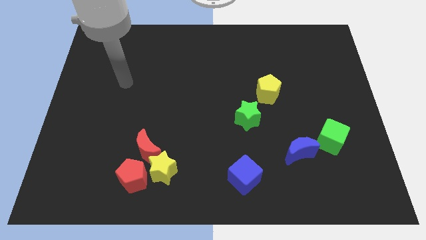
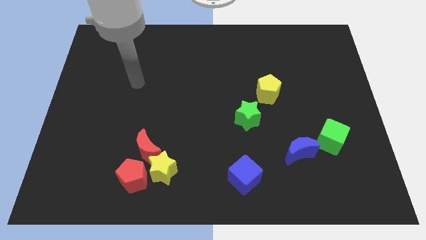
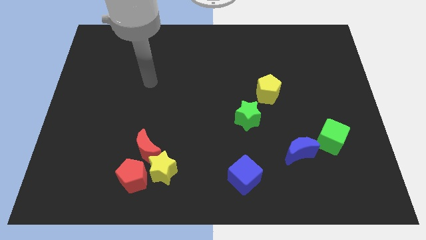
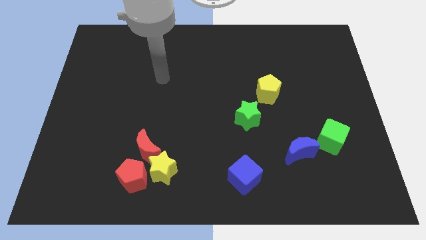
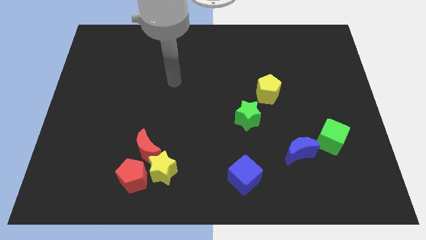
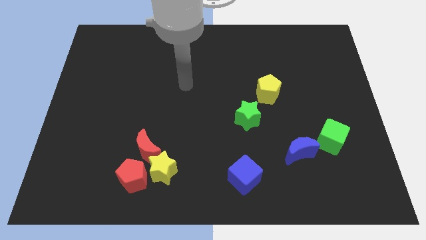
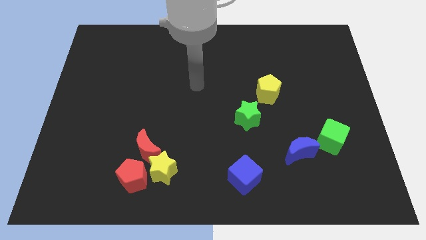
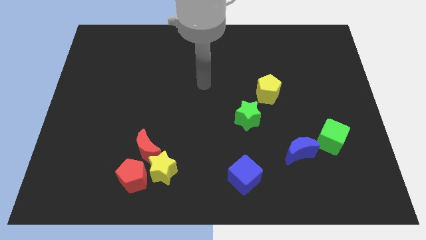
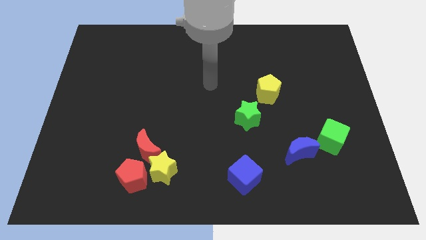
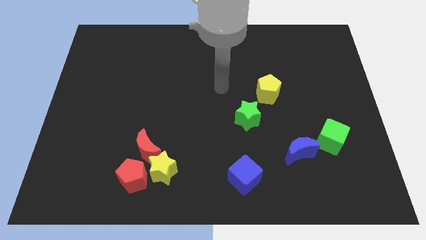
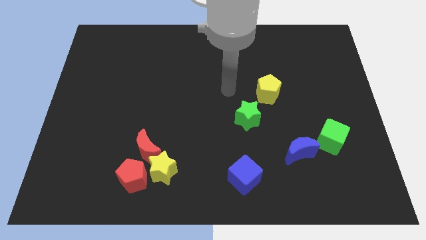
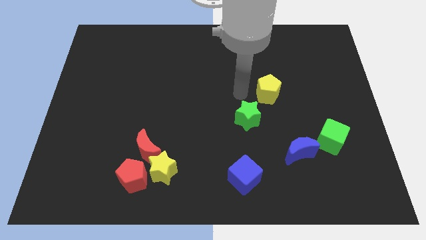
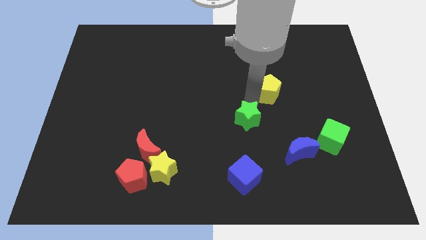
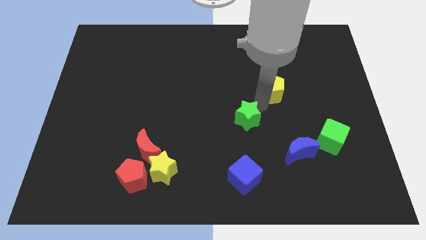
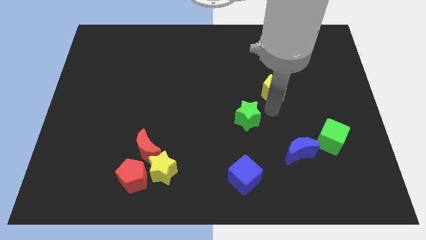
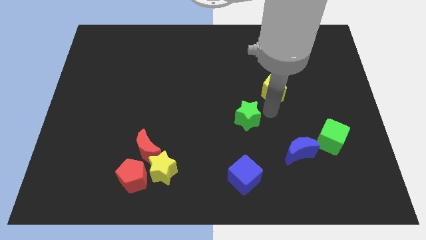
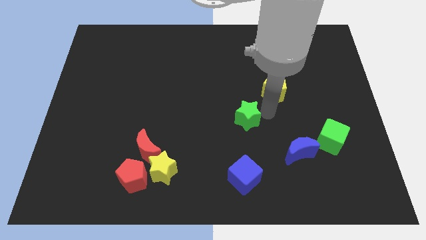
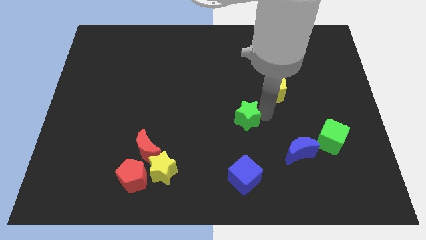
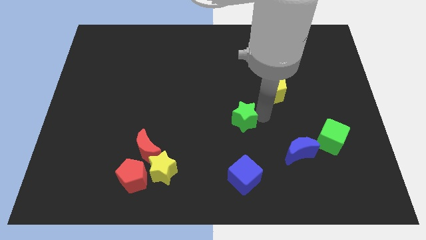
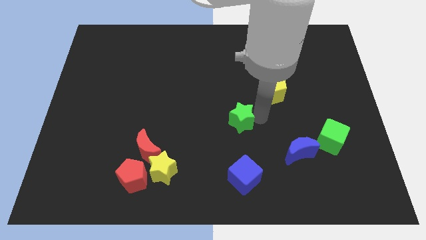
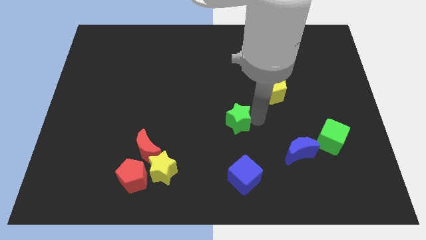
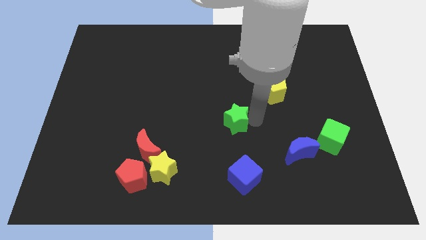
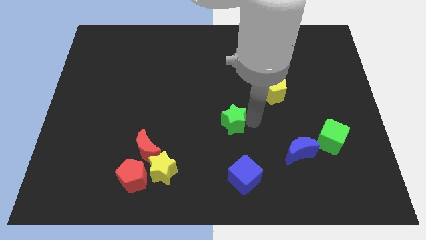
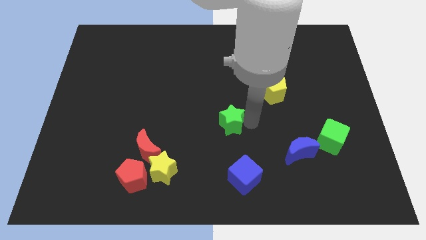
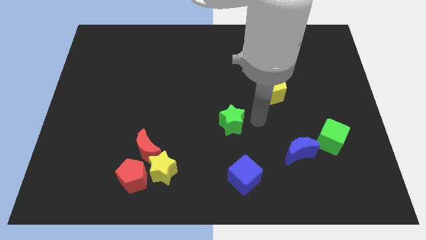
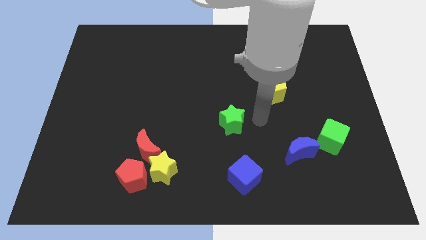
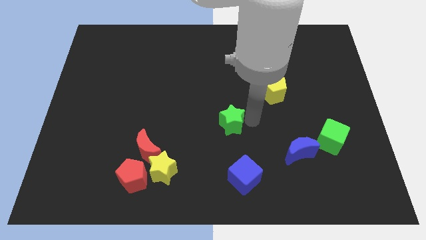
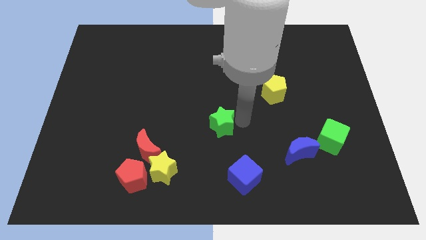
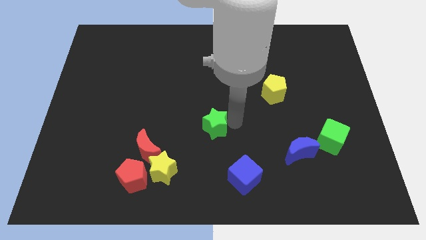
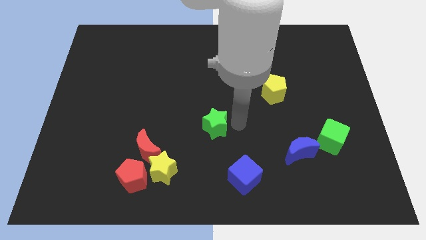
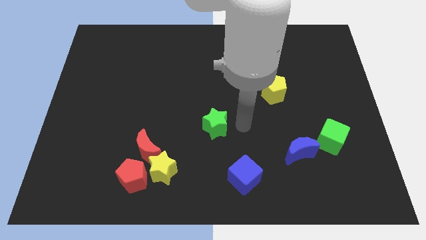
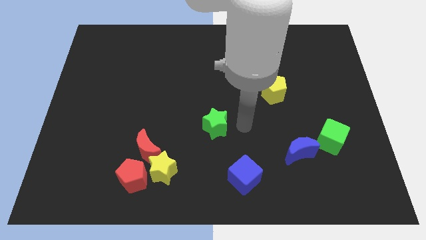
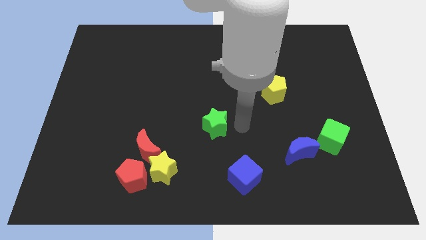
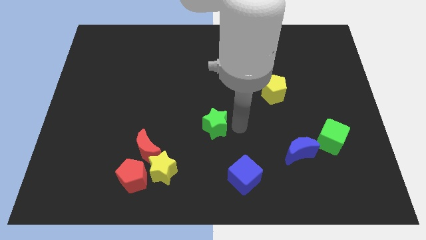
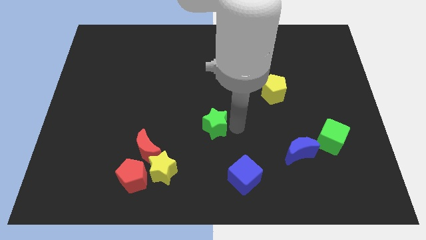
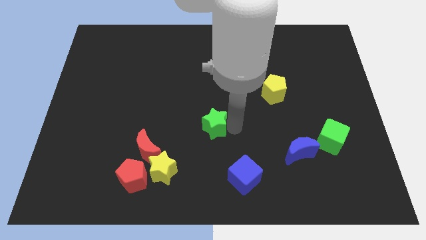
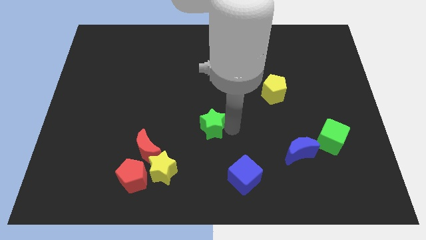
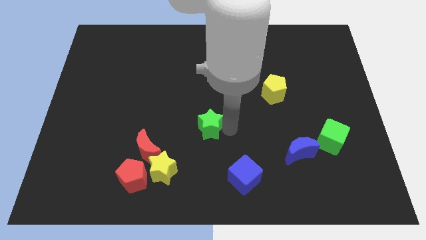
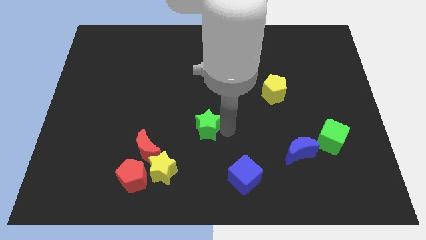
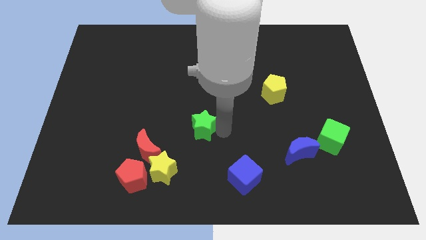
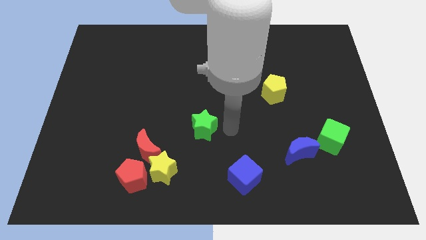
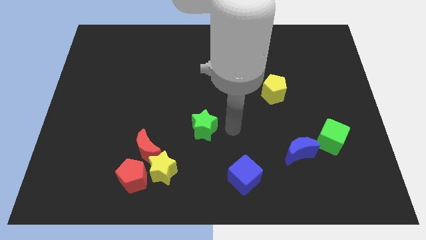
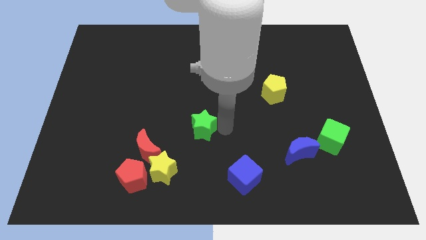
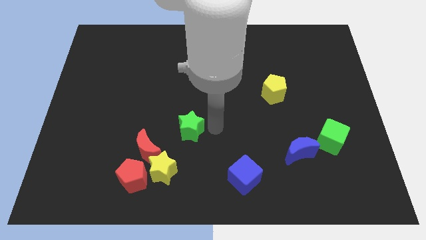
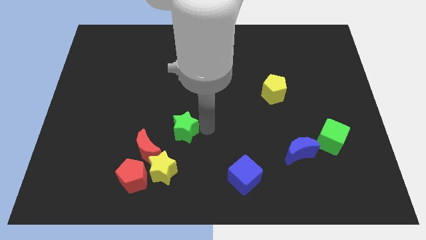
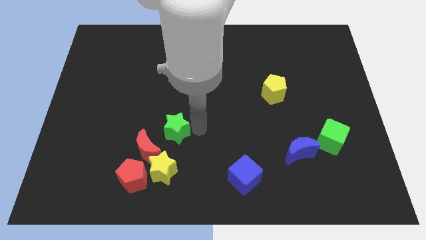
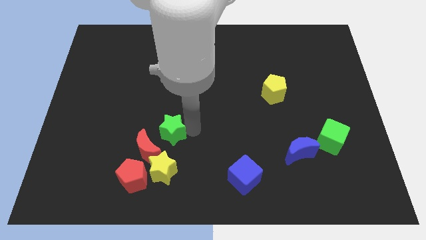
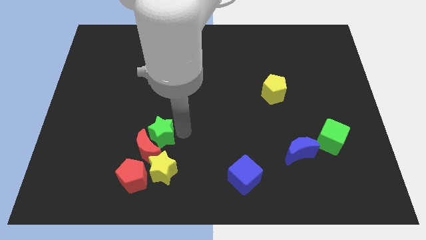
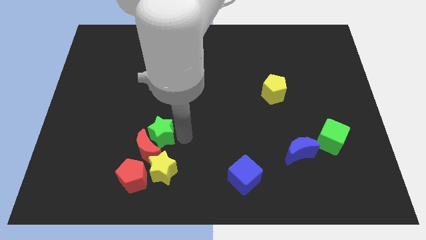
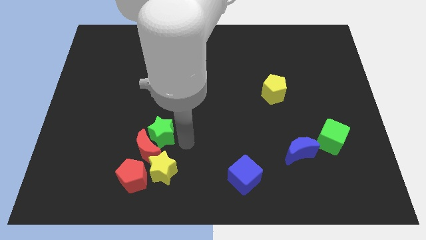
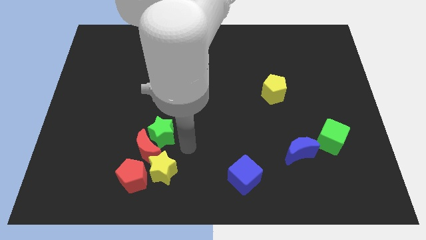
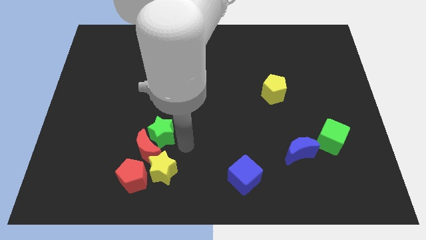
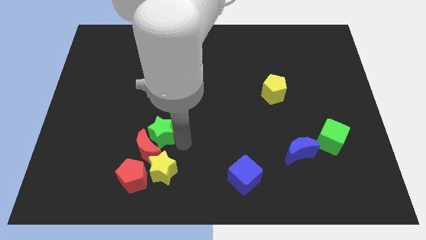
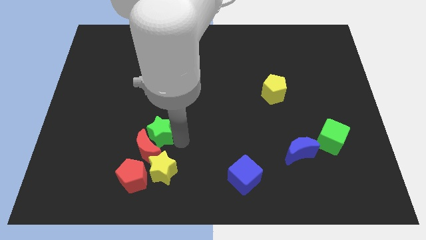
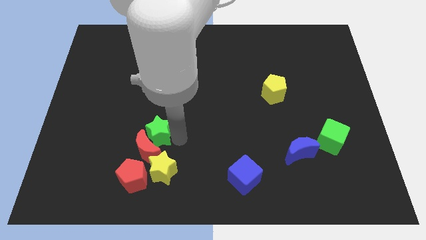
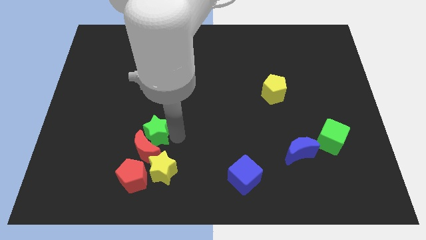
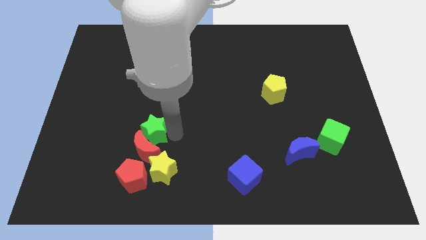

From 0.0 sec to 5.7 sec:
slide the green star left

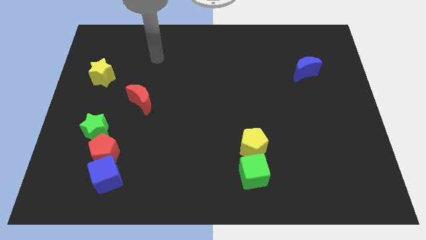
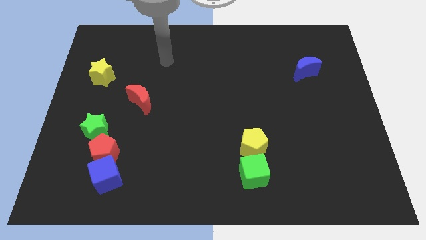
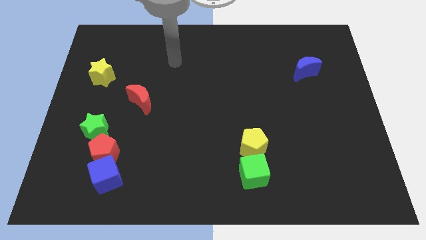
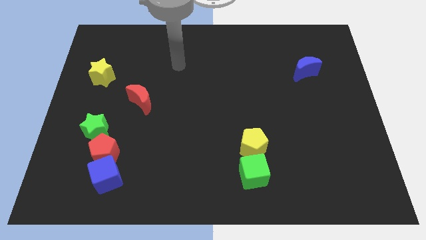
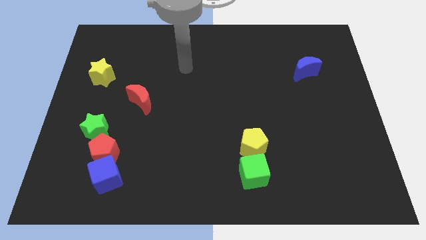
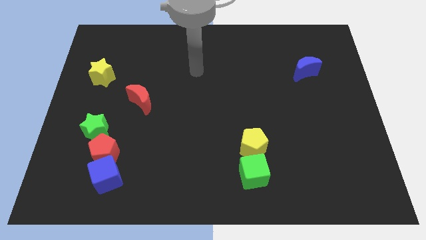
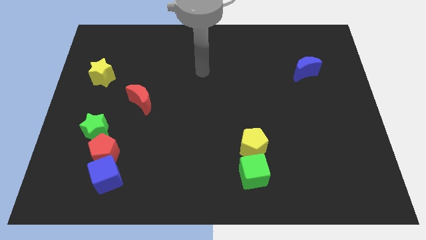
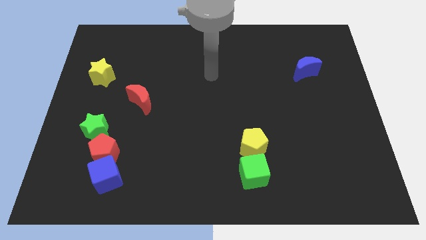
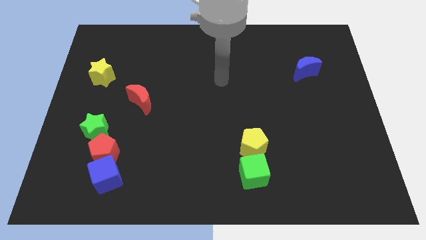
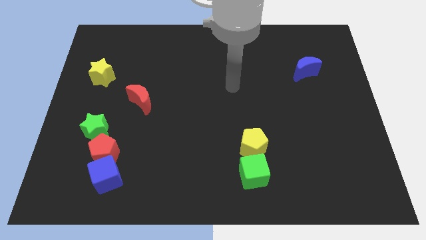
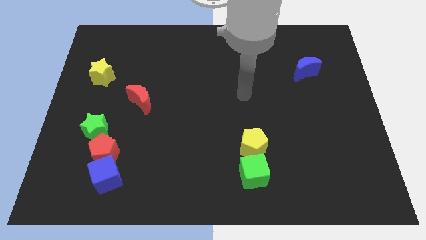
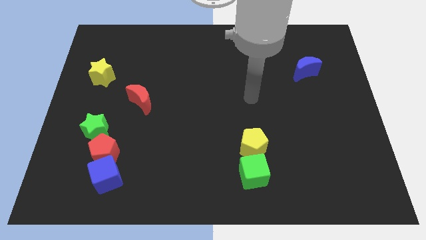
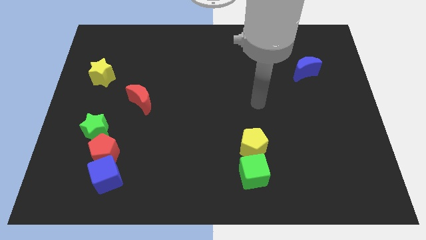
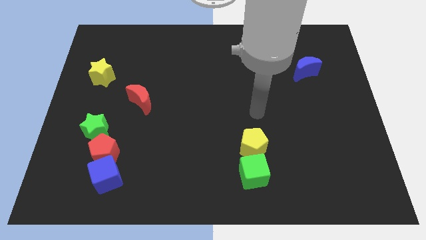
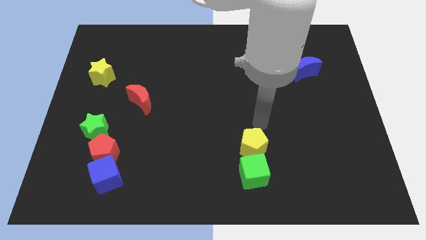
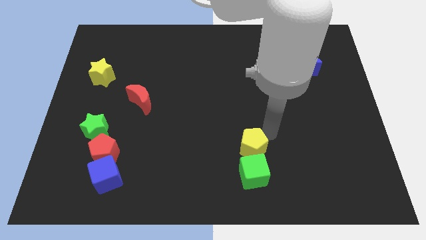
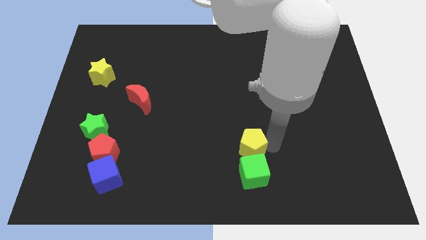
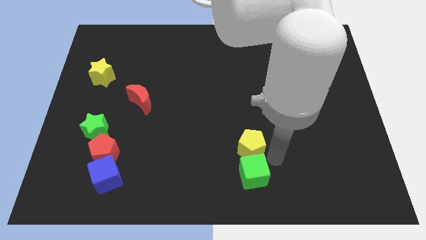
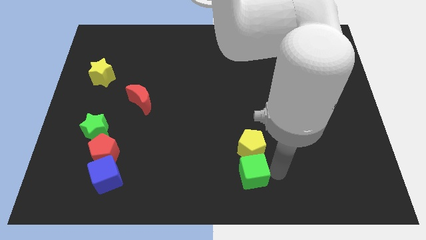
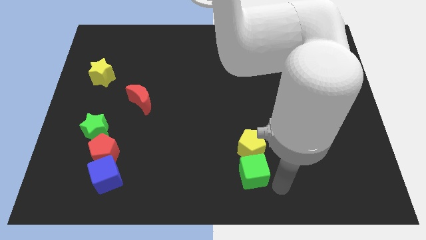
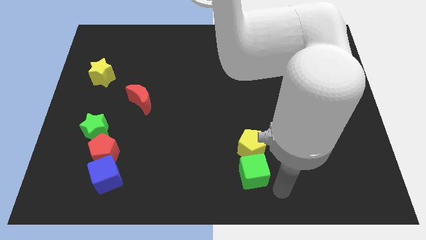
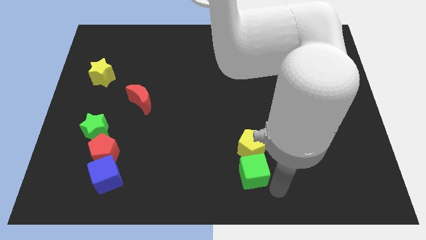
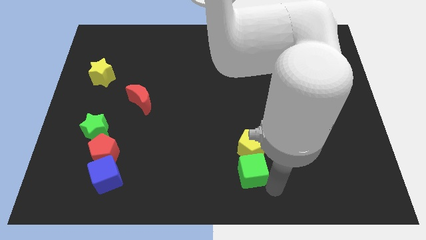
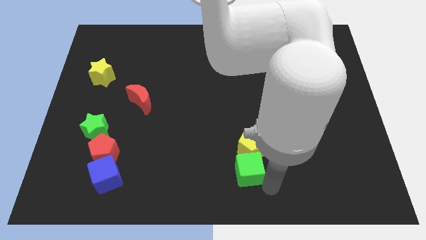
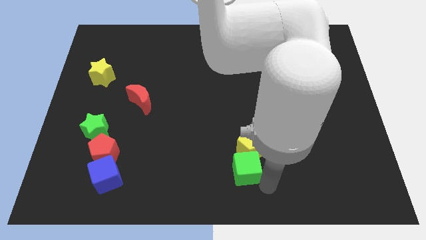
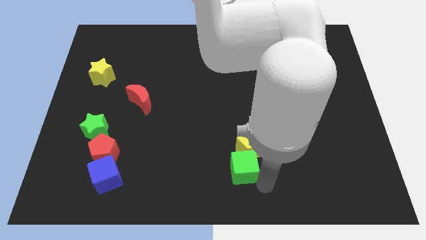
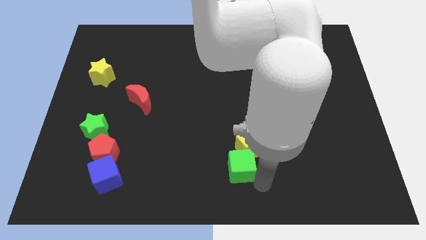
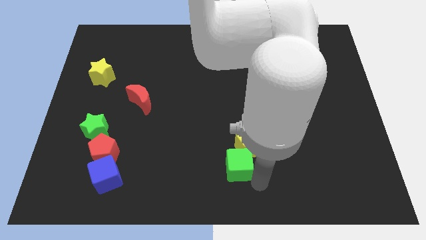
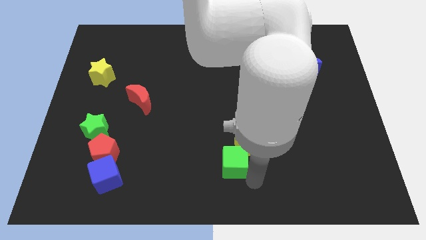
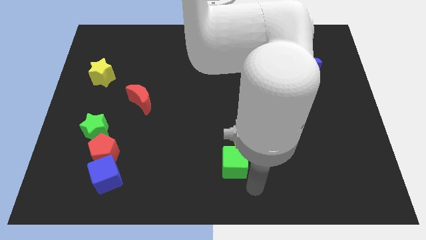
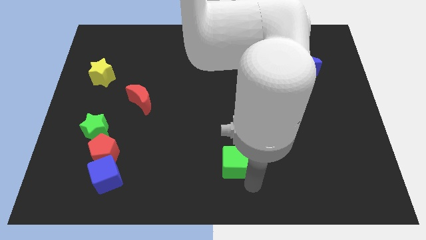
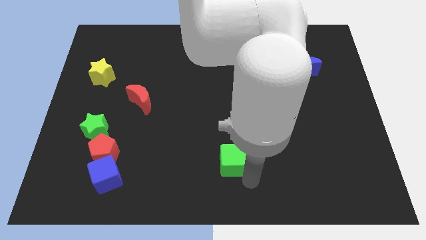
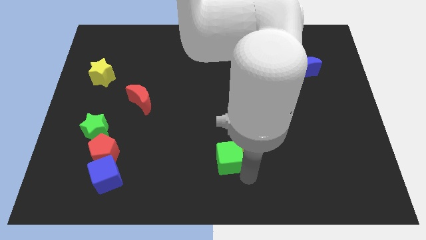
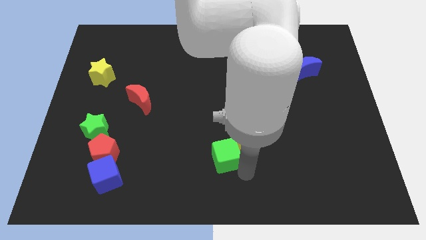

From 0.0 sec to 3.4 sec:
slightly move the green cube upwards and left
